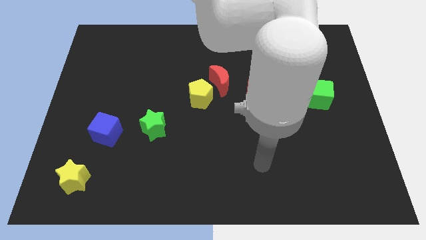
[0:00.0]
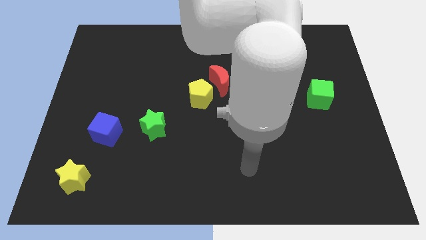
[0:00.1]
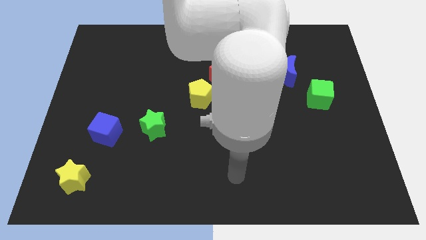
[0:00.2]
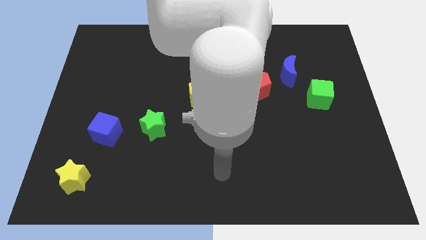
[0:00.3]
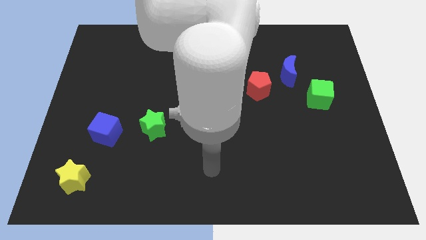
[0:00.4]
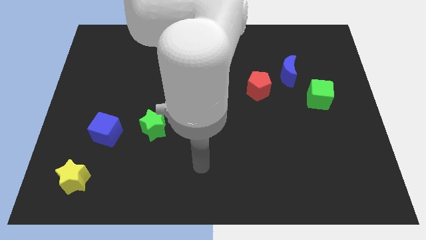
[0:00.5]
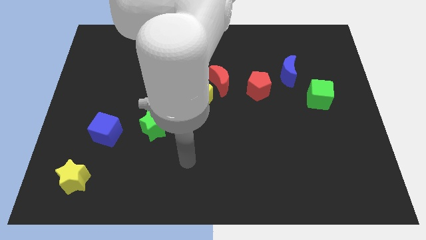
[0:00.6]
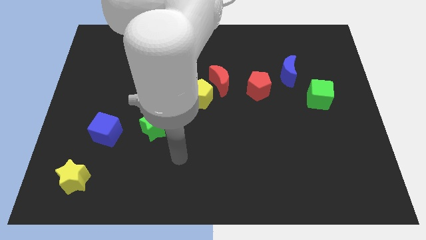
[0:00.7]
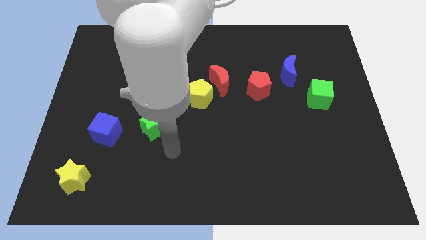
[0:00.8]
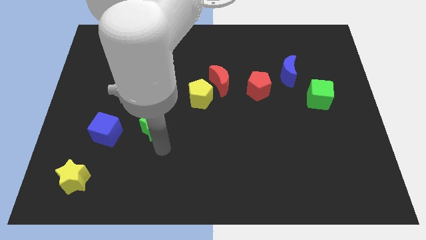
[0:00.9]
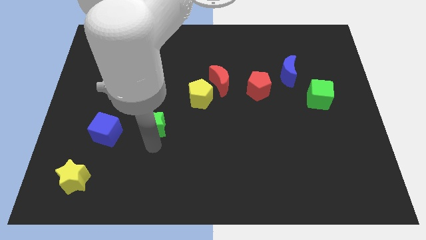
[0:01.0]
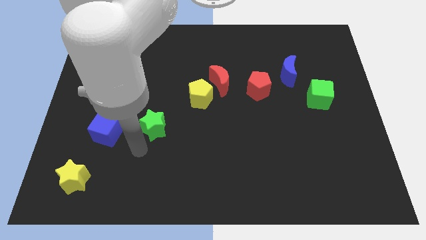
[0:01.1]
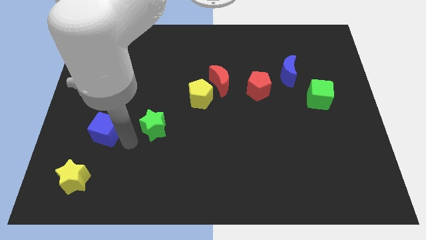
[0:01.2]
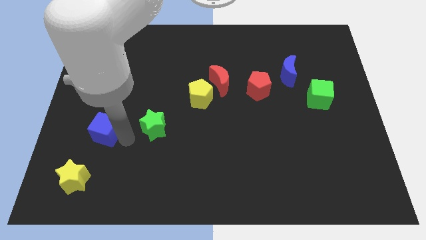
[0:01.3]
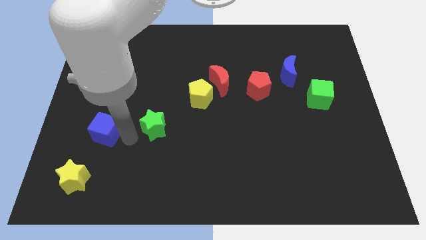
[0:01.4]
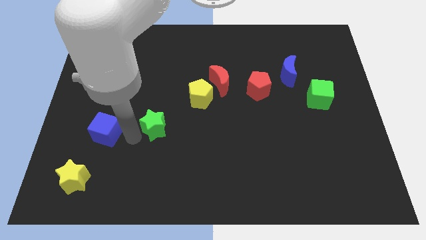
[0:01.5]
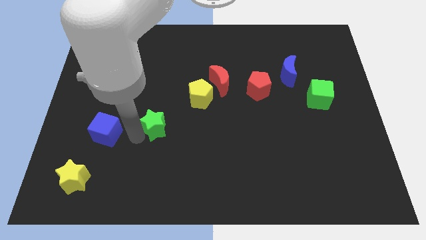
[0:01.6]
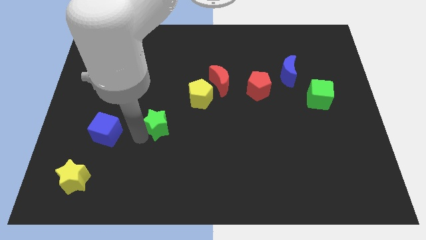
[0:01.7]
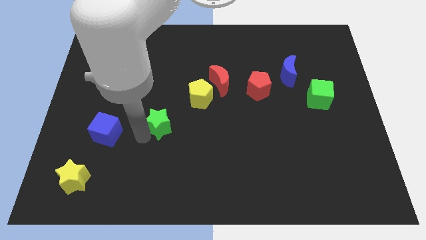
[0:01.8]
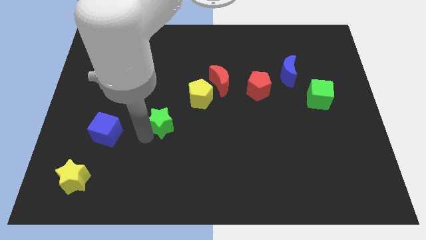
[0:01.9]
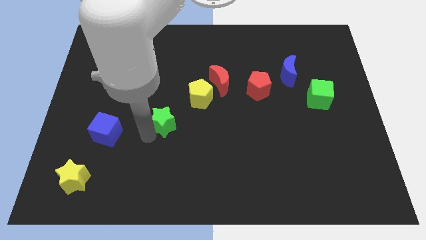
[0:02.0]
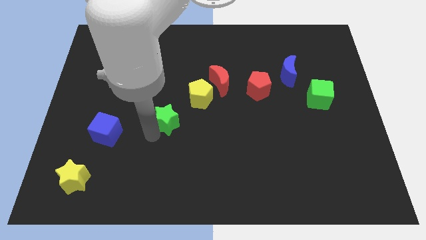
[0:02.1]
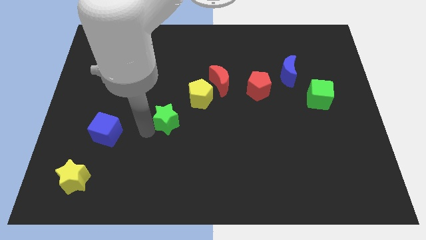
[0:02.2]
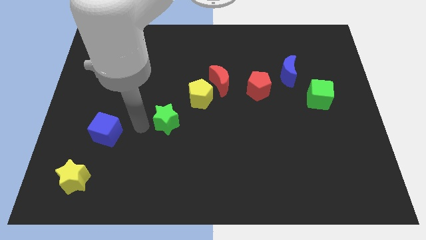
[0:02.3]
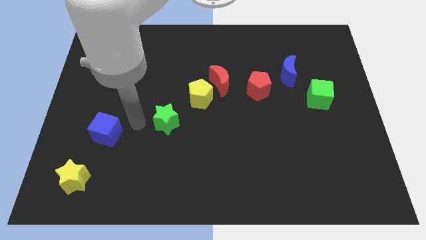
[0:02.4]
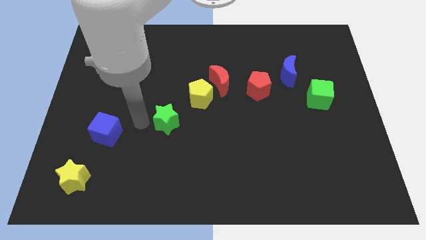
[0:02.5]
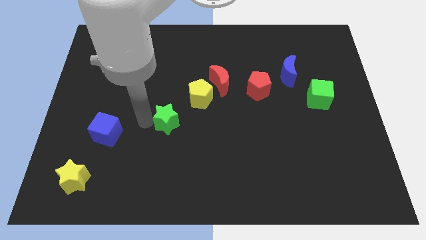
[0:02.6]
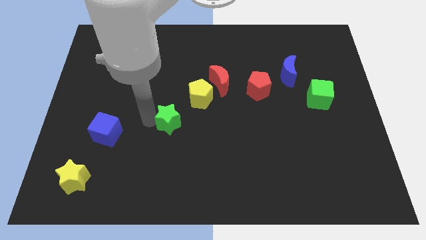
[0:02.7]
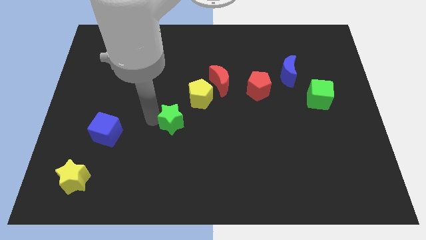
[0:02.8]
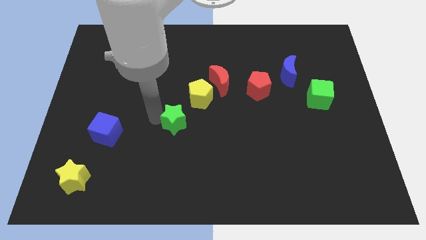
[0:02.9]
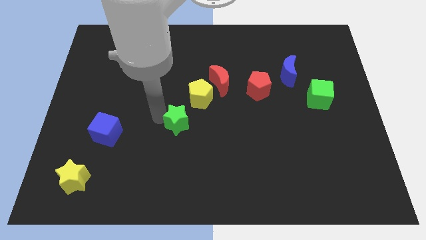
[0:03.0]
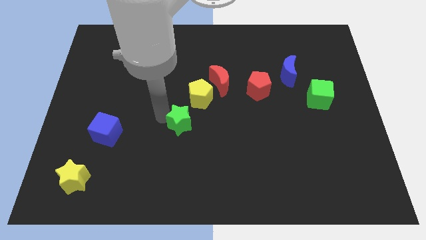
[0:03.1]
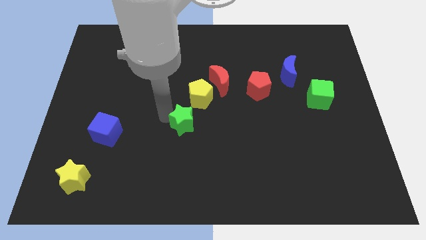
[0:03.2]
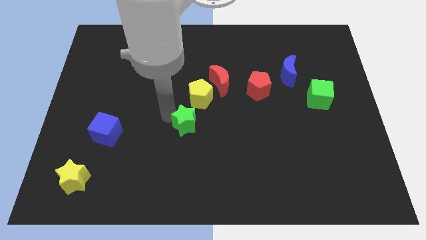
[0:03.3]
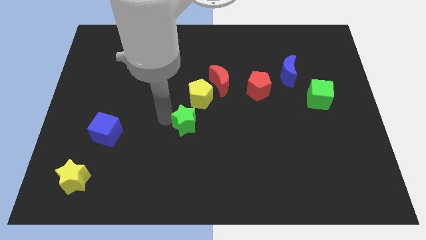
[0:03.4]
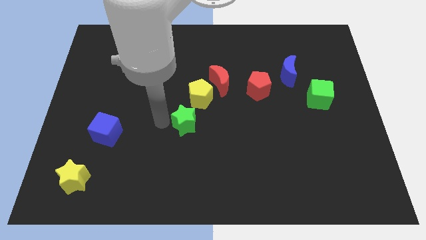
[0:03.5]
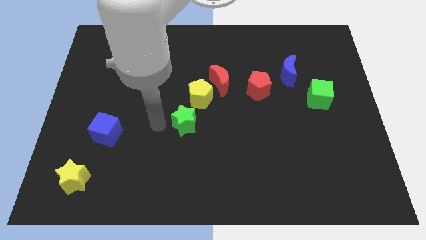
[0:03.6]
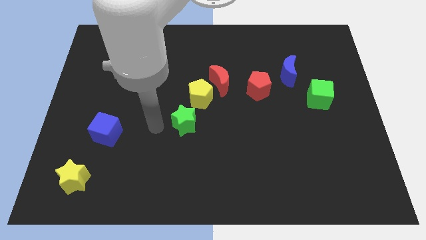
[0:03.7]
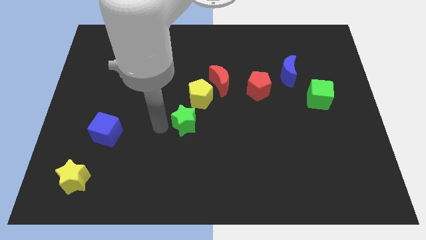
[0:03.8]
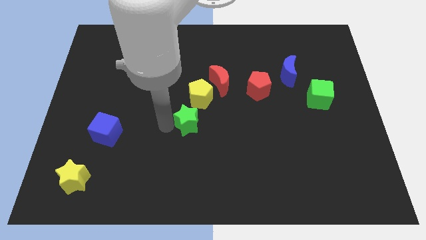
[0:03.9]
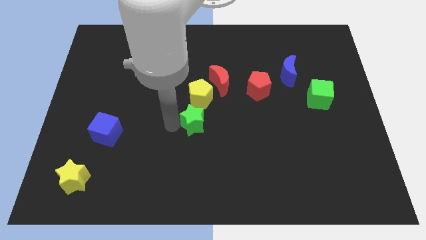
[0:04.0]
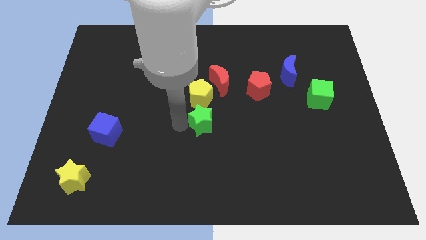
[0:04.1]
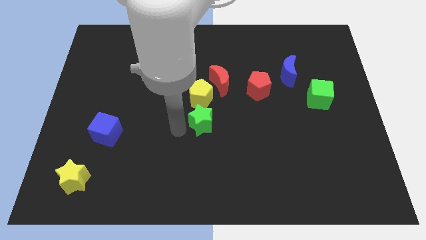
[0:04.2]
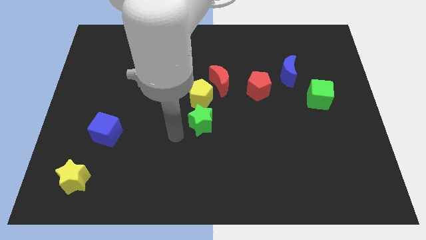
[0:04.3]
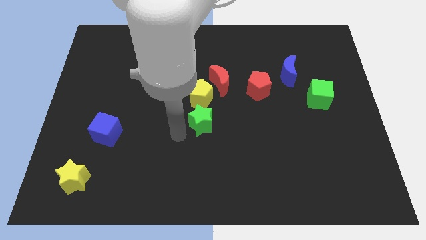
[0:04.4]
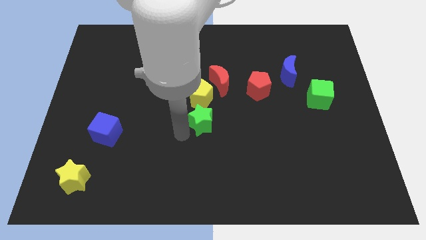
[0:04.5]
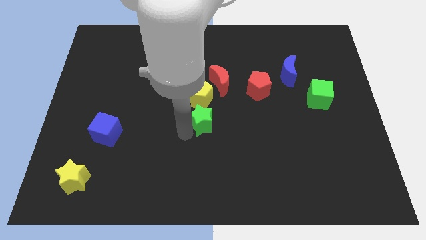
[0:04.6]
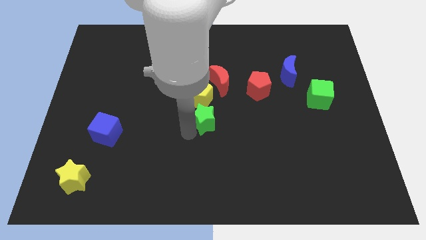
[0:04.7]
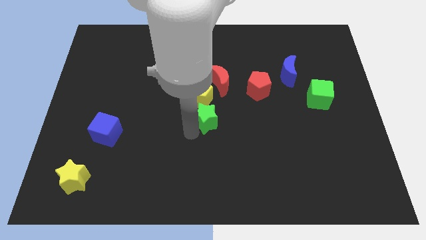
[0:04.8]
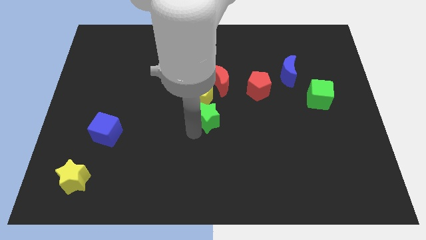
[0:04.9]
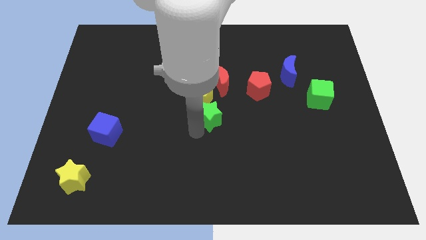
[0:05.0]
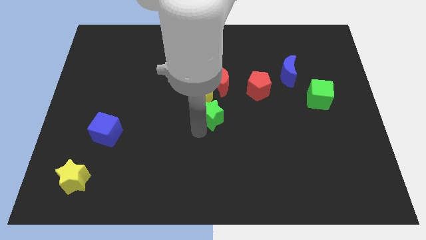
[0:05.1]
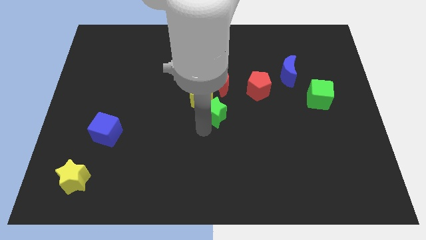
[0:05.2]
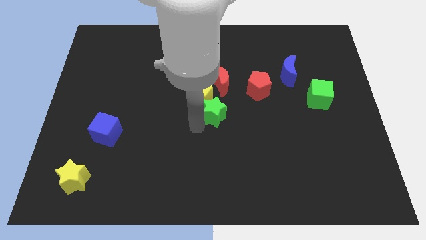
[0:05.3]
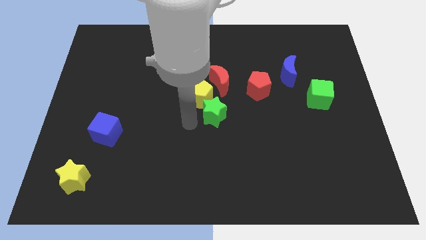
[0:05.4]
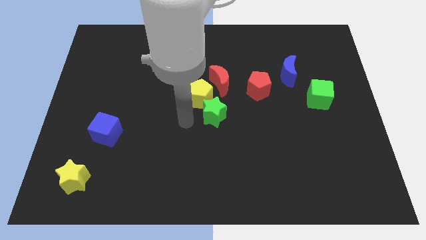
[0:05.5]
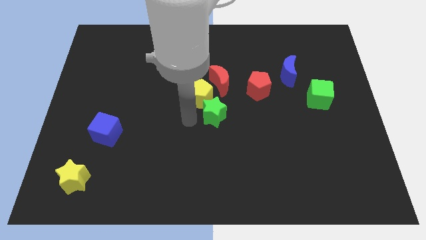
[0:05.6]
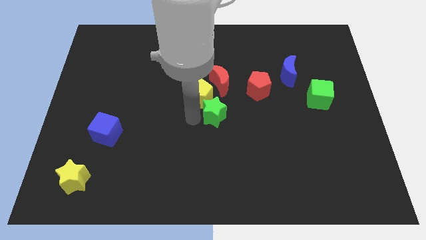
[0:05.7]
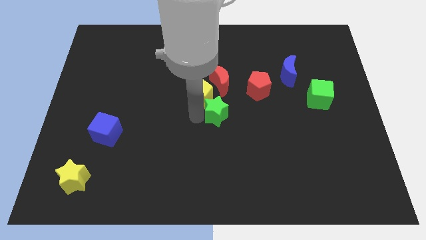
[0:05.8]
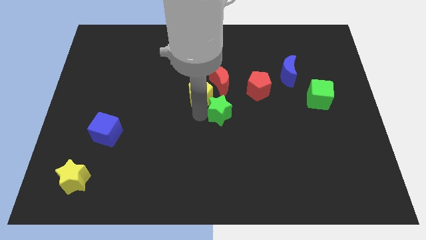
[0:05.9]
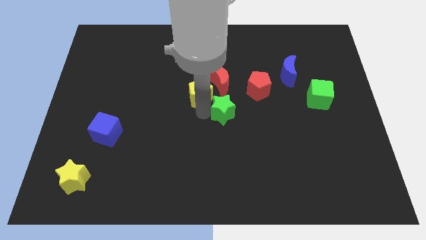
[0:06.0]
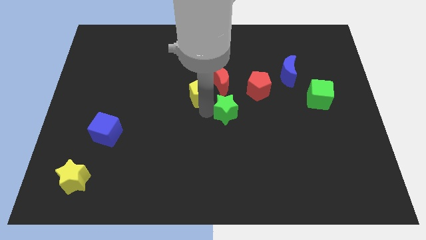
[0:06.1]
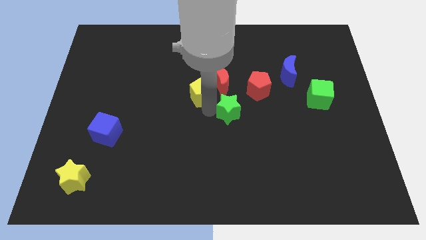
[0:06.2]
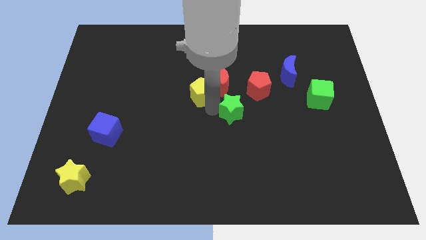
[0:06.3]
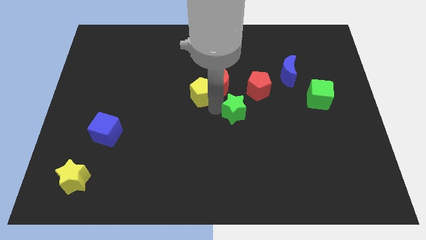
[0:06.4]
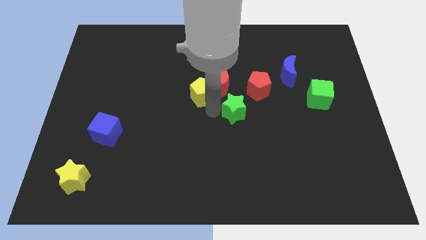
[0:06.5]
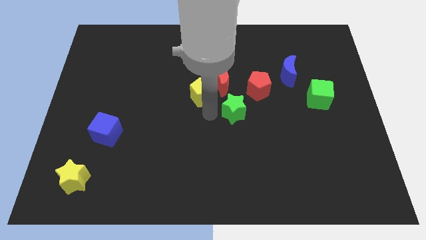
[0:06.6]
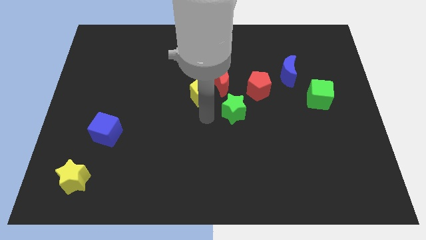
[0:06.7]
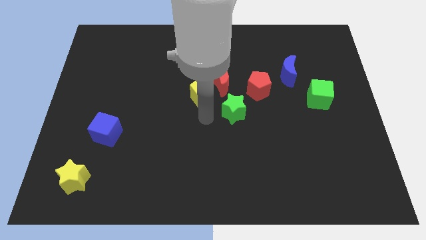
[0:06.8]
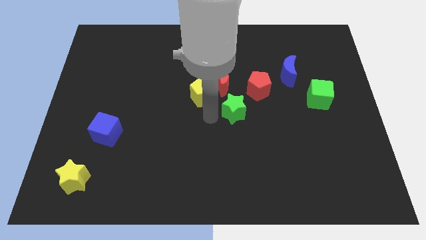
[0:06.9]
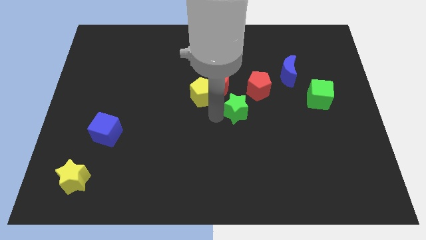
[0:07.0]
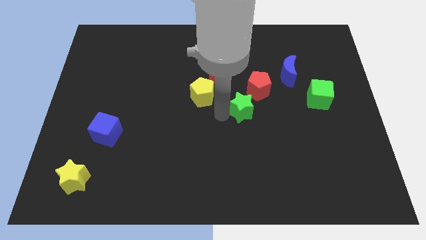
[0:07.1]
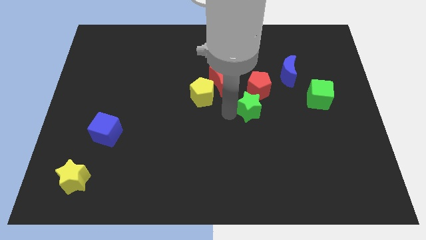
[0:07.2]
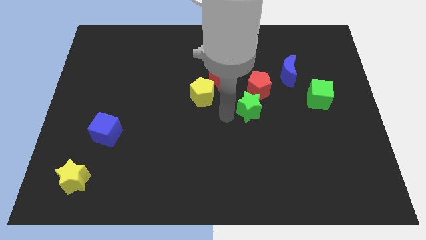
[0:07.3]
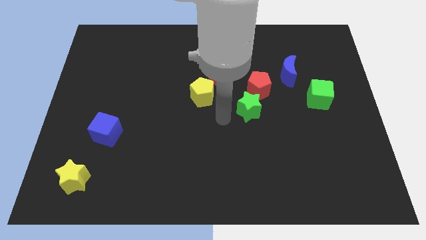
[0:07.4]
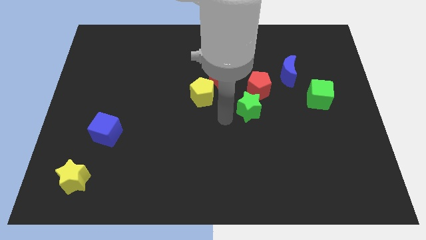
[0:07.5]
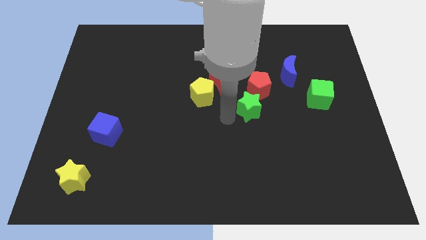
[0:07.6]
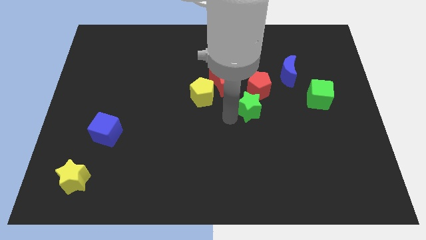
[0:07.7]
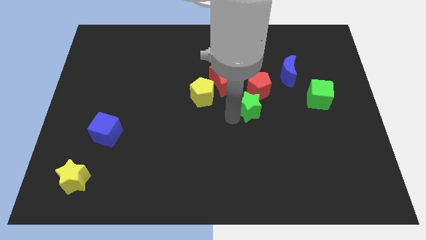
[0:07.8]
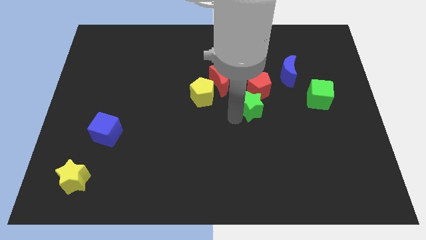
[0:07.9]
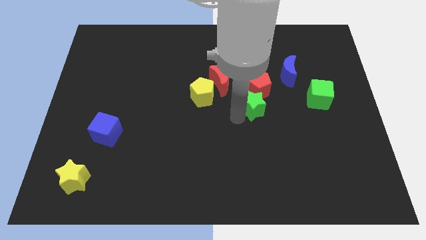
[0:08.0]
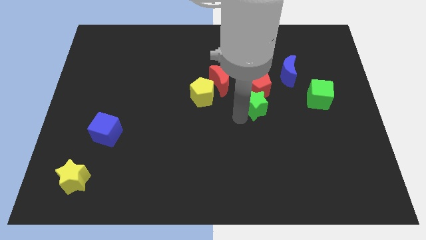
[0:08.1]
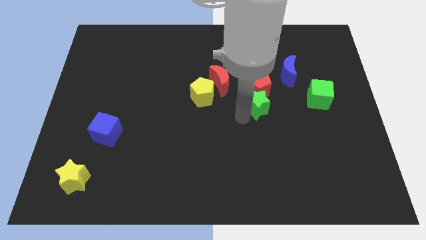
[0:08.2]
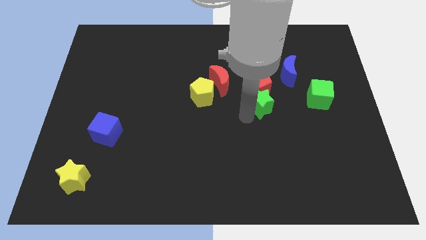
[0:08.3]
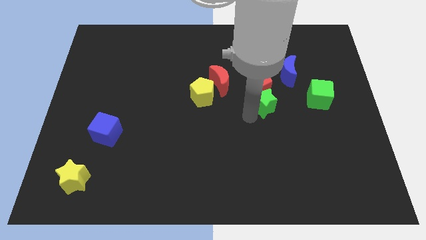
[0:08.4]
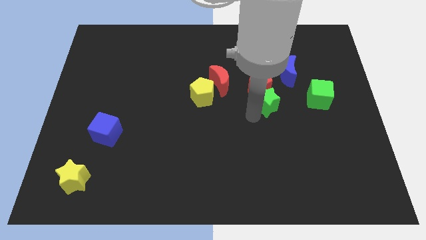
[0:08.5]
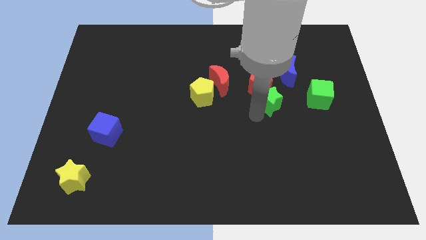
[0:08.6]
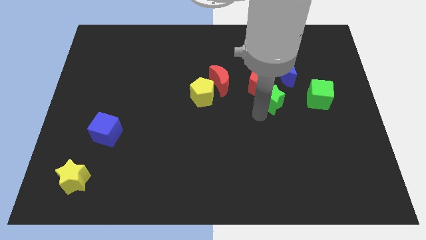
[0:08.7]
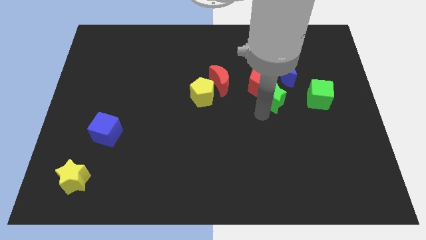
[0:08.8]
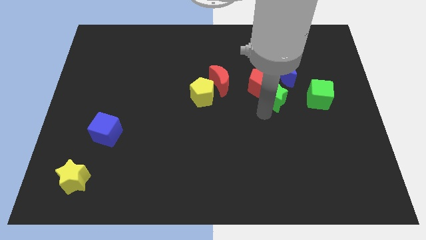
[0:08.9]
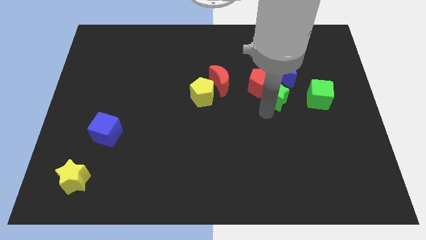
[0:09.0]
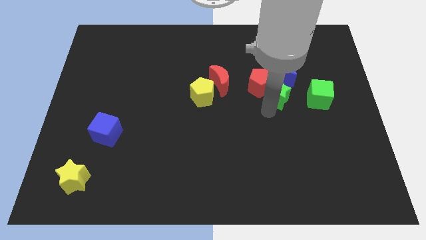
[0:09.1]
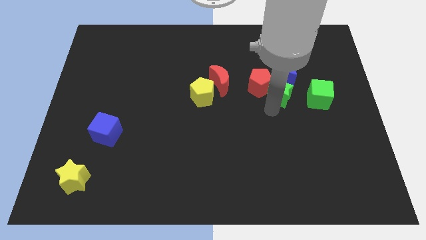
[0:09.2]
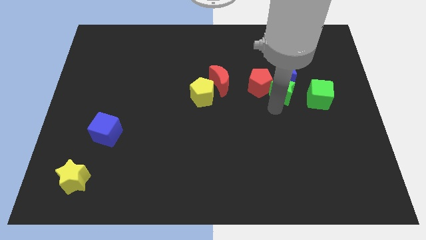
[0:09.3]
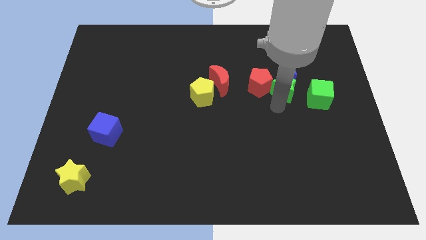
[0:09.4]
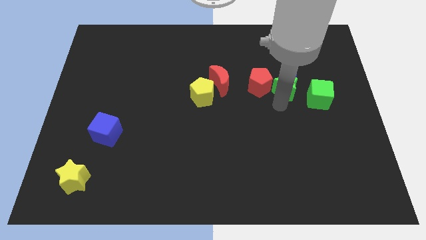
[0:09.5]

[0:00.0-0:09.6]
push the green star close to the blue moon
